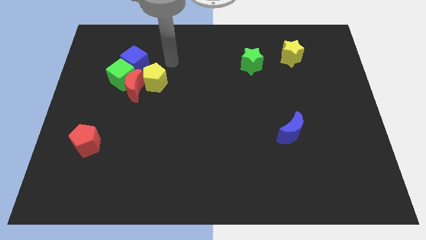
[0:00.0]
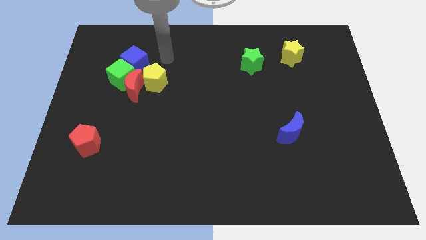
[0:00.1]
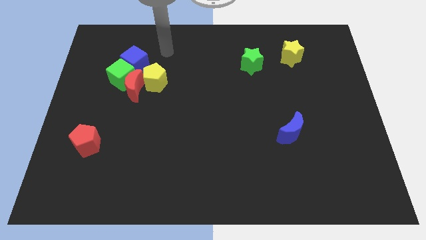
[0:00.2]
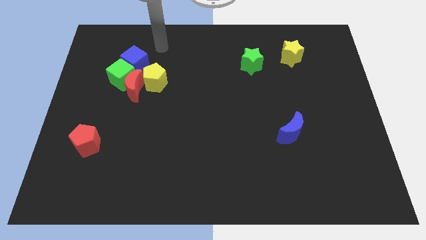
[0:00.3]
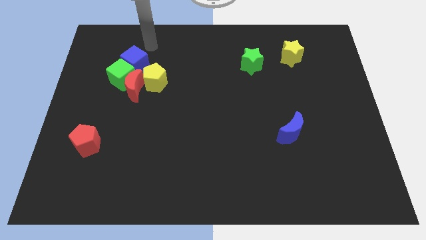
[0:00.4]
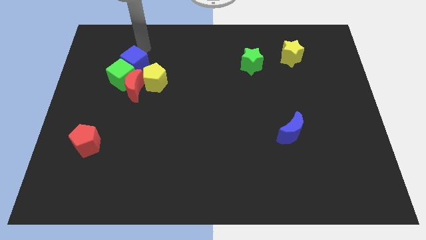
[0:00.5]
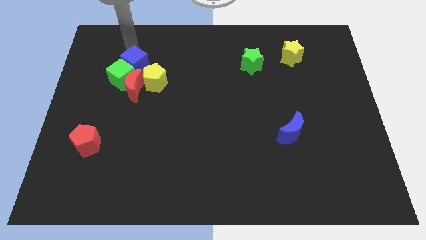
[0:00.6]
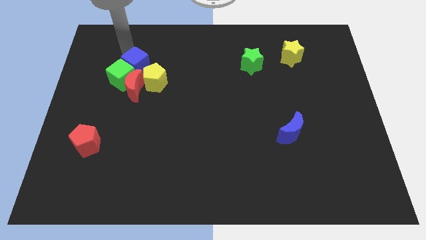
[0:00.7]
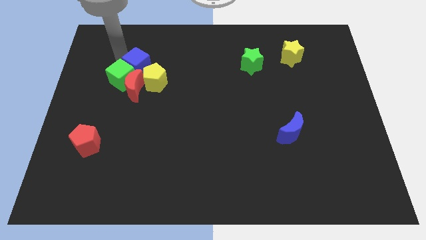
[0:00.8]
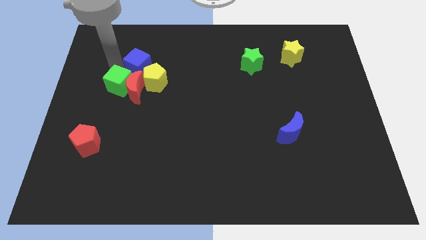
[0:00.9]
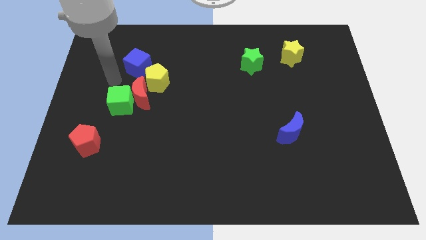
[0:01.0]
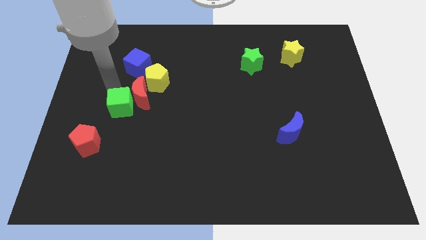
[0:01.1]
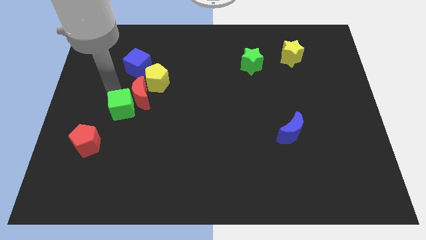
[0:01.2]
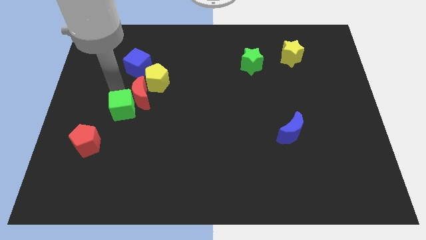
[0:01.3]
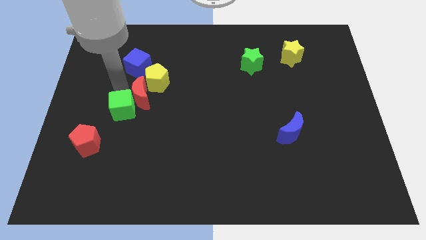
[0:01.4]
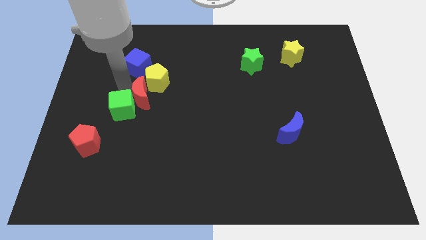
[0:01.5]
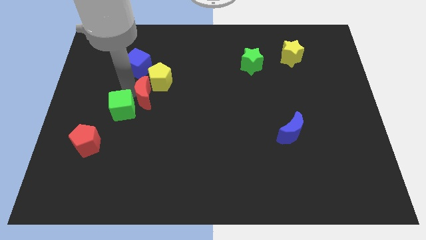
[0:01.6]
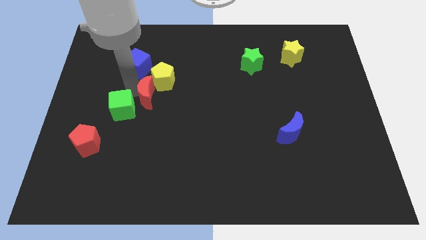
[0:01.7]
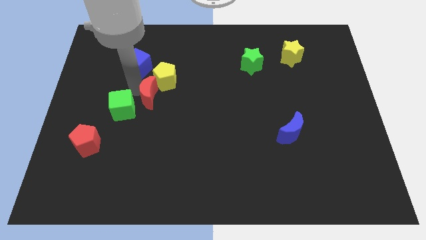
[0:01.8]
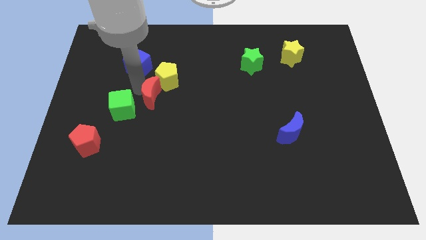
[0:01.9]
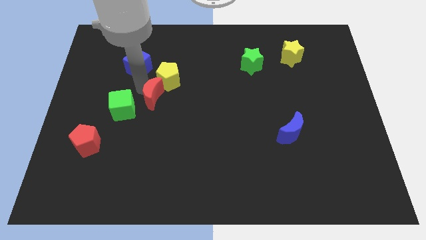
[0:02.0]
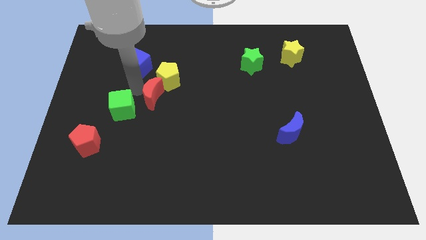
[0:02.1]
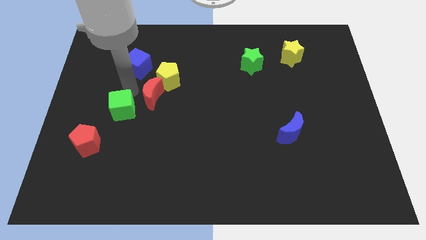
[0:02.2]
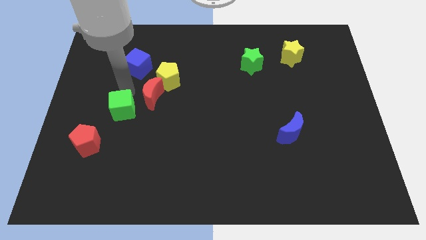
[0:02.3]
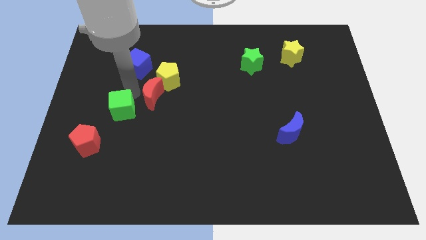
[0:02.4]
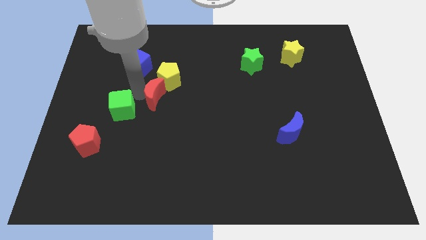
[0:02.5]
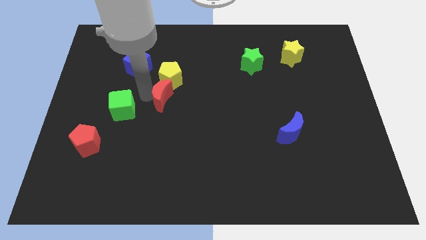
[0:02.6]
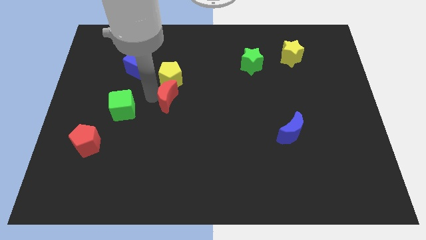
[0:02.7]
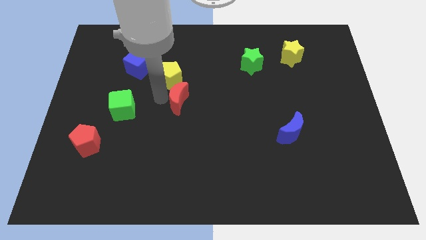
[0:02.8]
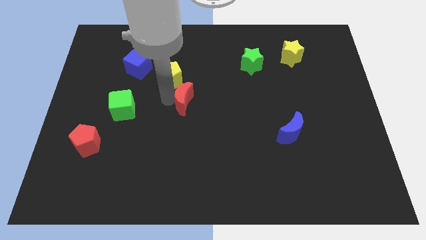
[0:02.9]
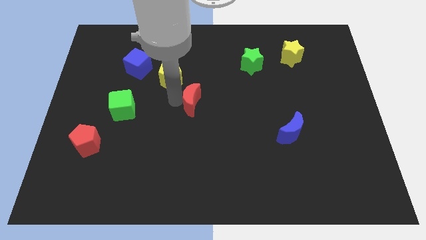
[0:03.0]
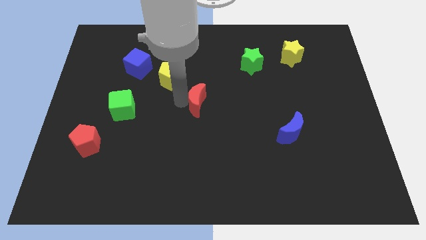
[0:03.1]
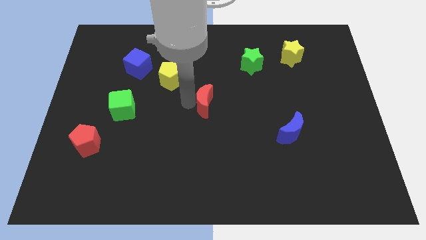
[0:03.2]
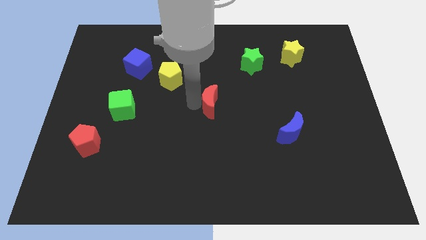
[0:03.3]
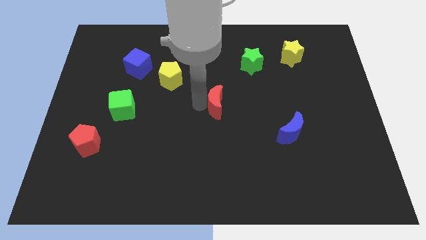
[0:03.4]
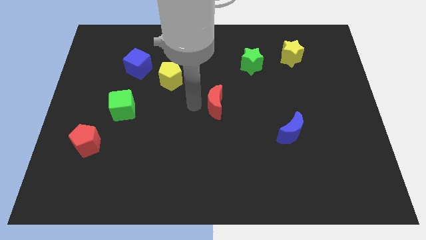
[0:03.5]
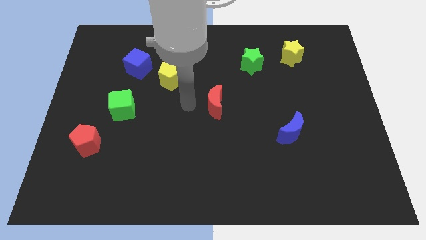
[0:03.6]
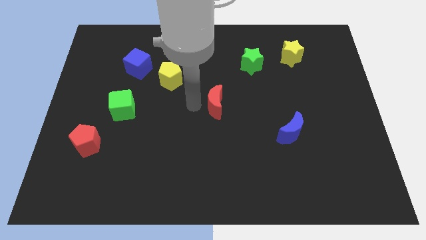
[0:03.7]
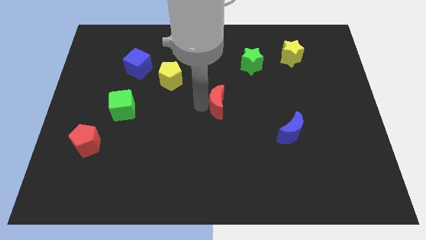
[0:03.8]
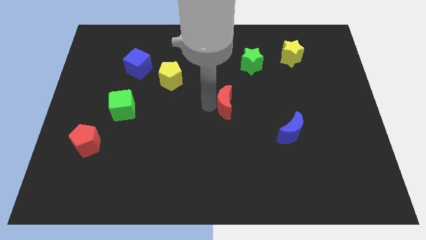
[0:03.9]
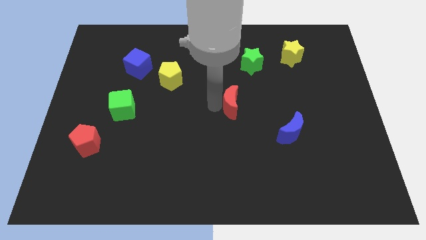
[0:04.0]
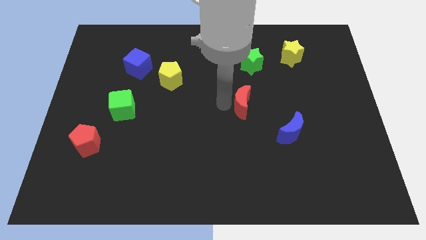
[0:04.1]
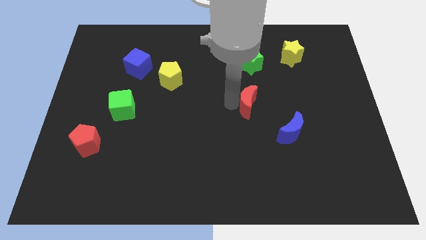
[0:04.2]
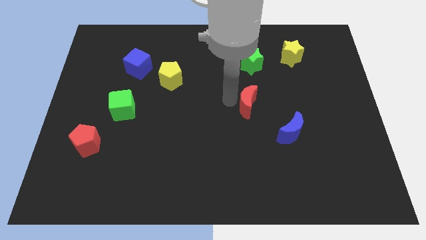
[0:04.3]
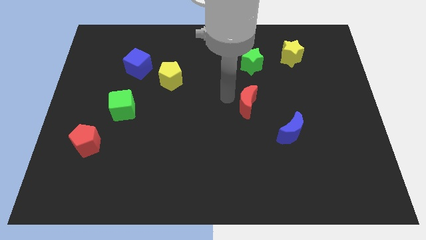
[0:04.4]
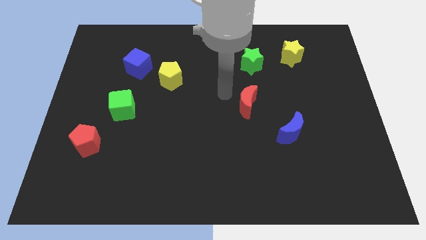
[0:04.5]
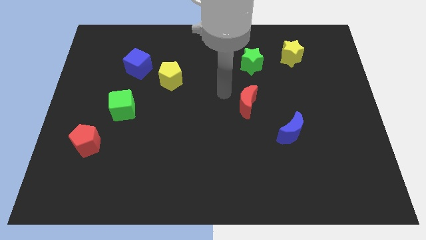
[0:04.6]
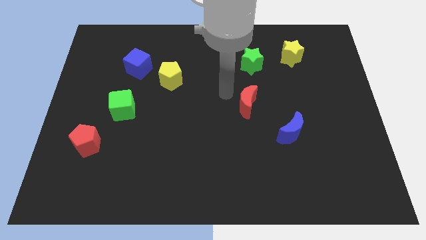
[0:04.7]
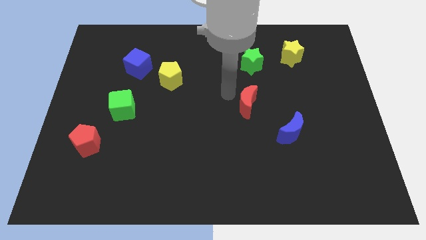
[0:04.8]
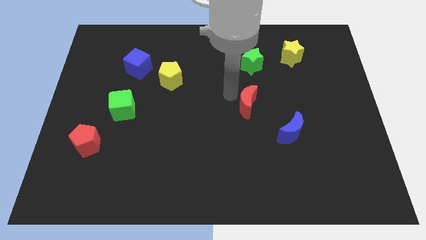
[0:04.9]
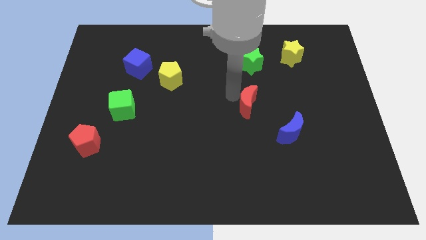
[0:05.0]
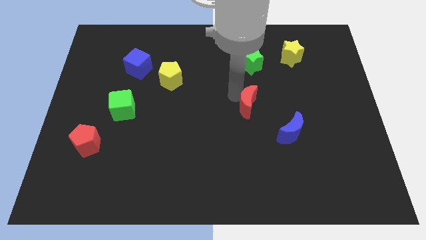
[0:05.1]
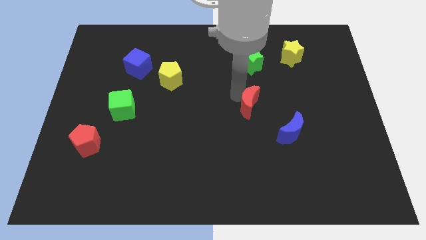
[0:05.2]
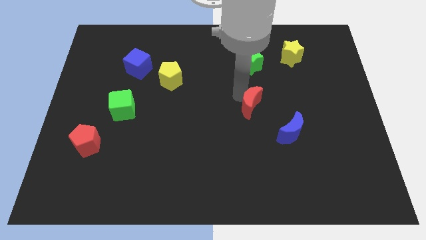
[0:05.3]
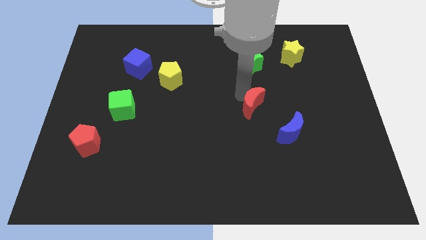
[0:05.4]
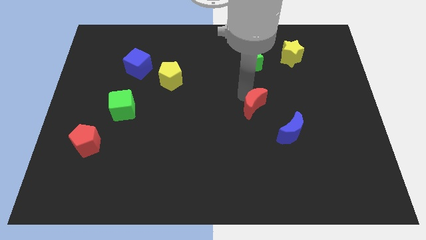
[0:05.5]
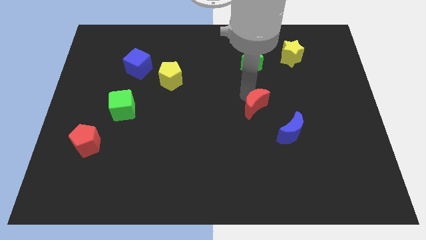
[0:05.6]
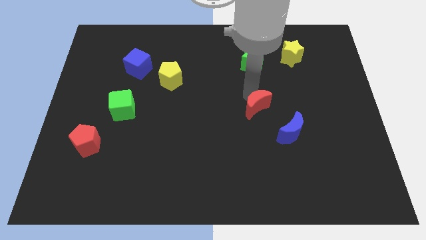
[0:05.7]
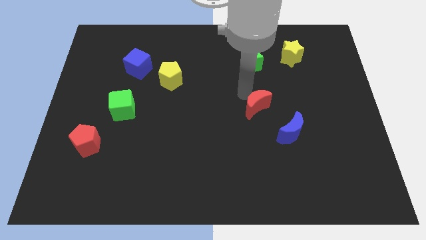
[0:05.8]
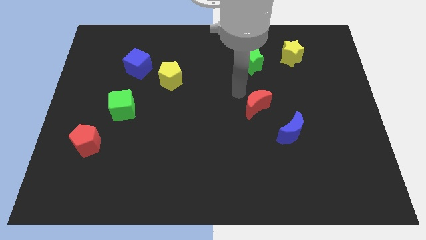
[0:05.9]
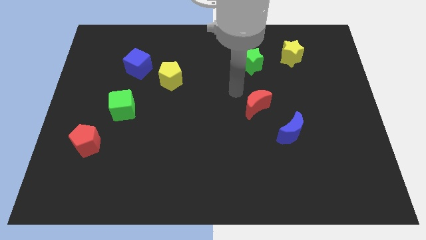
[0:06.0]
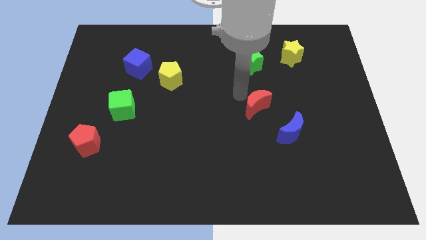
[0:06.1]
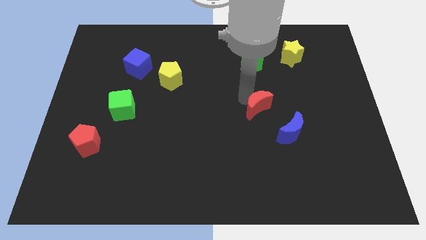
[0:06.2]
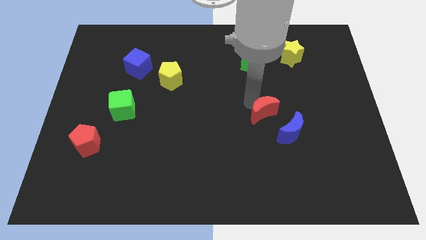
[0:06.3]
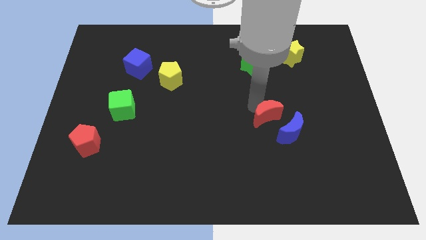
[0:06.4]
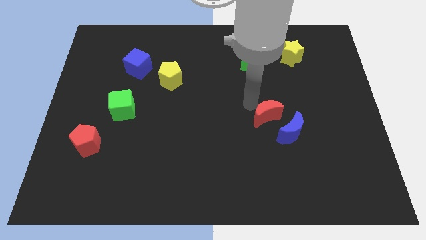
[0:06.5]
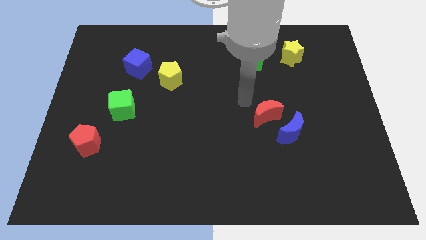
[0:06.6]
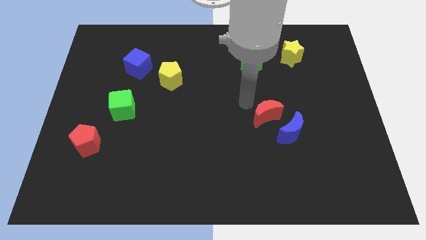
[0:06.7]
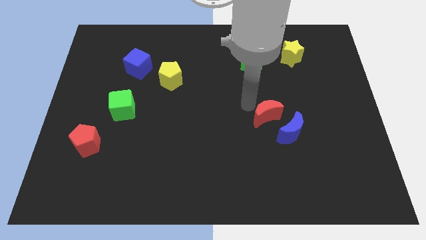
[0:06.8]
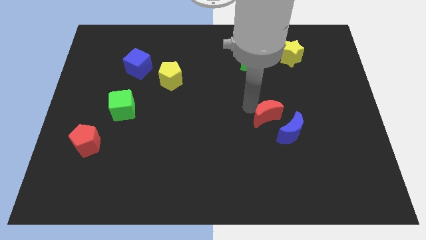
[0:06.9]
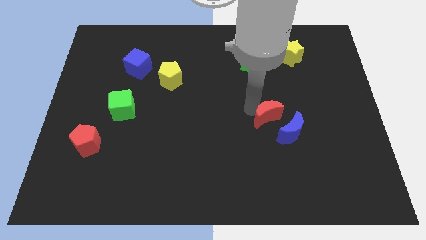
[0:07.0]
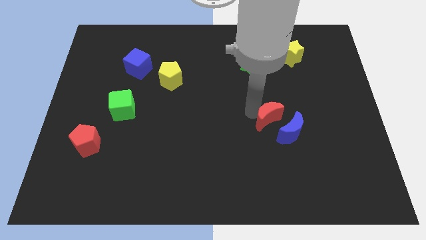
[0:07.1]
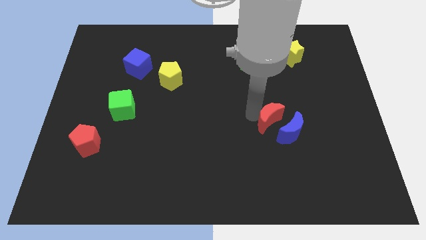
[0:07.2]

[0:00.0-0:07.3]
put the red moon towards the blue moon

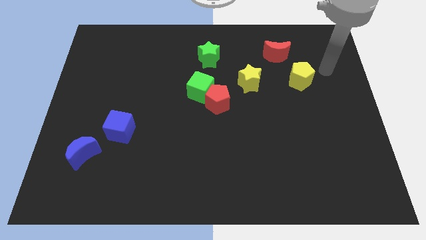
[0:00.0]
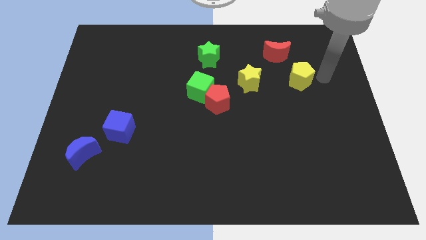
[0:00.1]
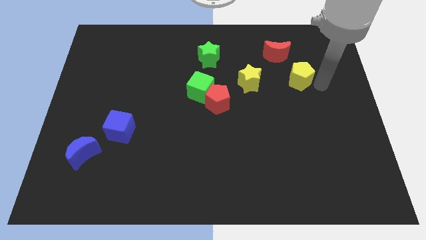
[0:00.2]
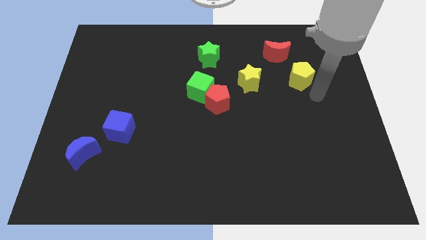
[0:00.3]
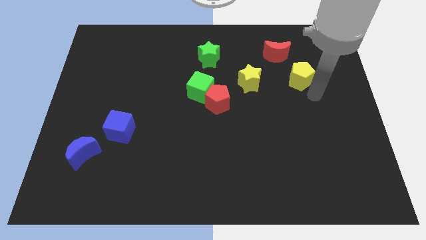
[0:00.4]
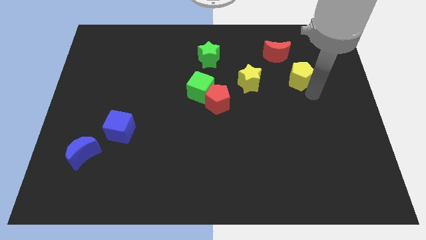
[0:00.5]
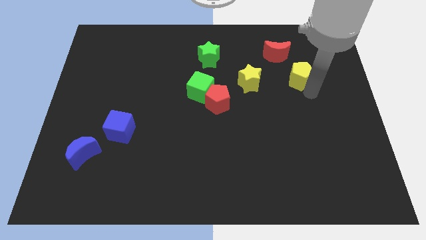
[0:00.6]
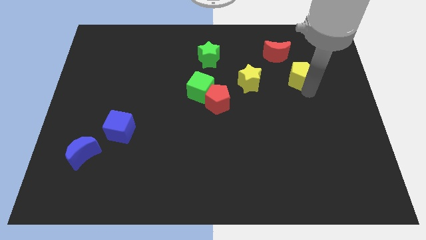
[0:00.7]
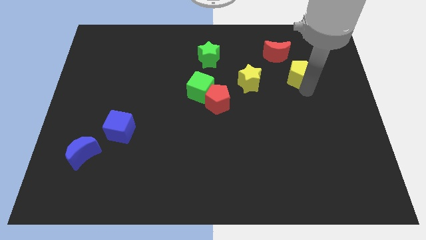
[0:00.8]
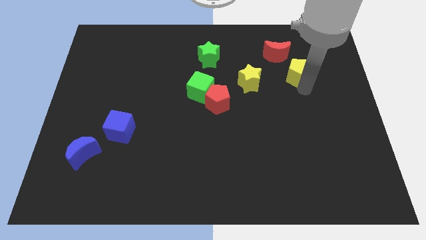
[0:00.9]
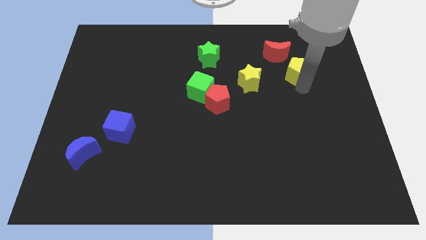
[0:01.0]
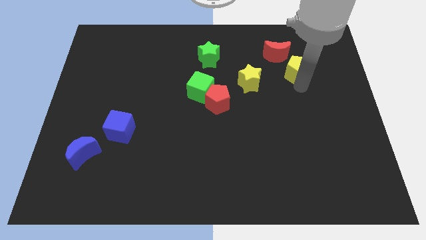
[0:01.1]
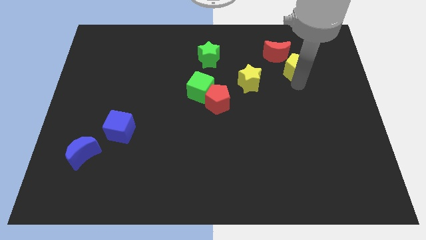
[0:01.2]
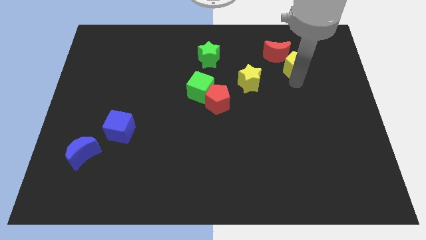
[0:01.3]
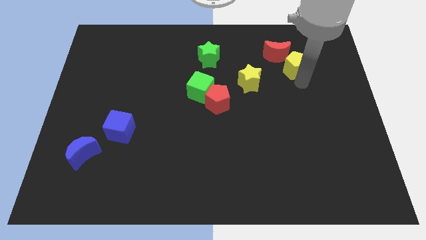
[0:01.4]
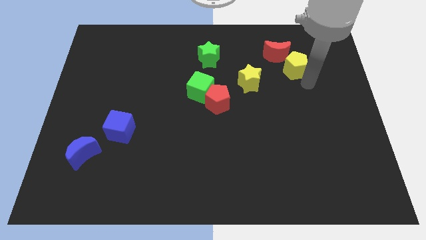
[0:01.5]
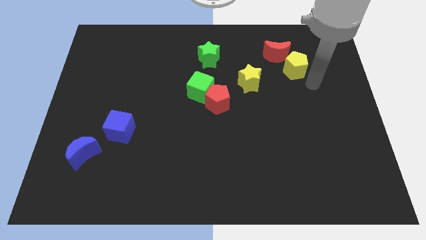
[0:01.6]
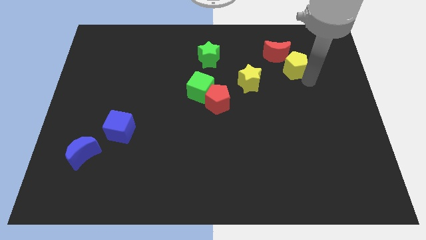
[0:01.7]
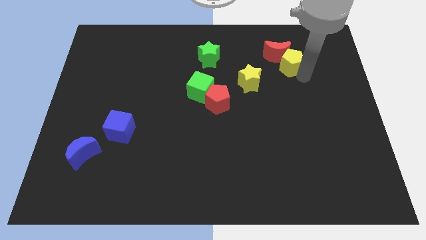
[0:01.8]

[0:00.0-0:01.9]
put the yellow pentagon to the red moon
